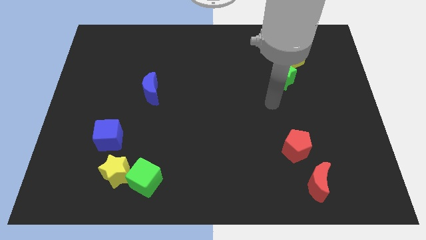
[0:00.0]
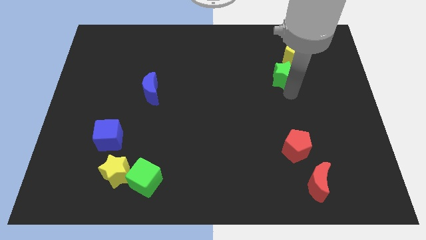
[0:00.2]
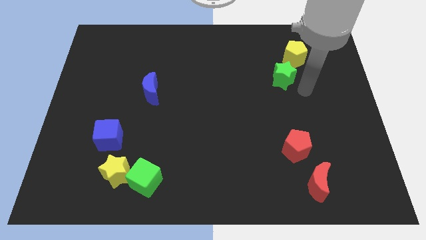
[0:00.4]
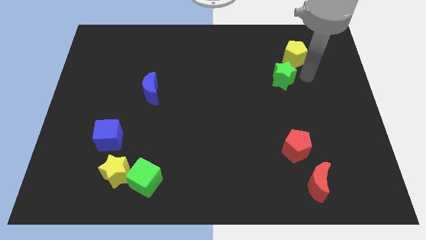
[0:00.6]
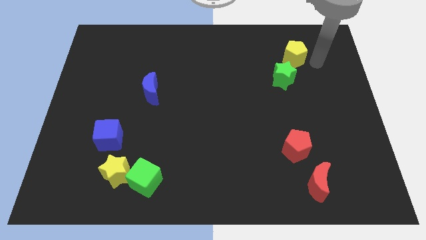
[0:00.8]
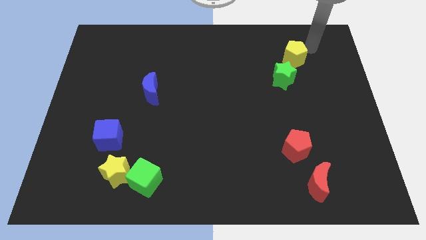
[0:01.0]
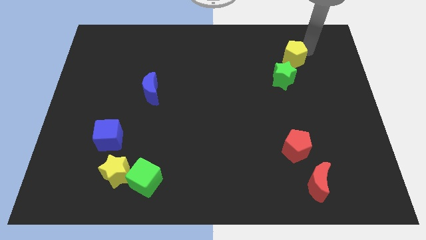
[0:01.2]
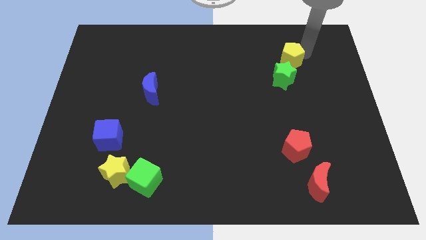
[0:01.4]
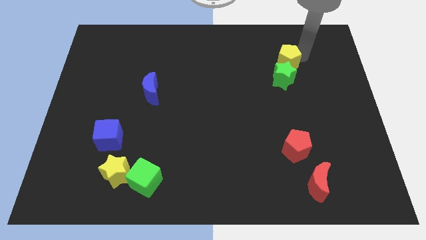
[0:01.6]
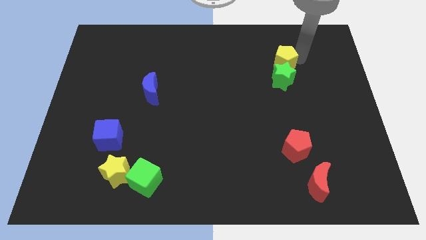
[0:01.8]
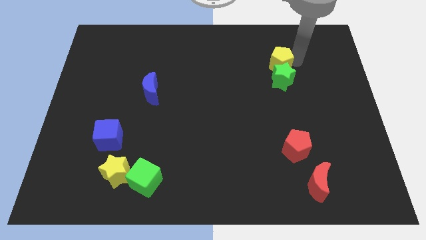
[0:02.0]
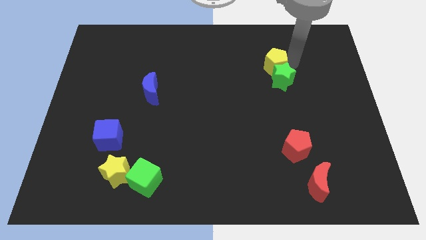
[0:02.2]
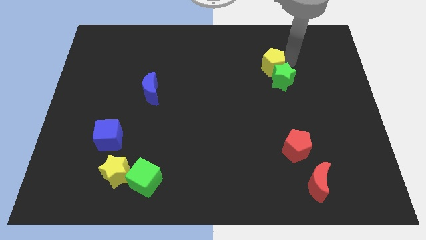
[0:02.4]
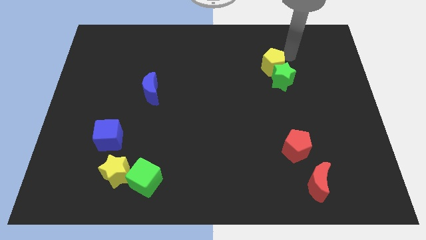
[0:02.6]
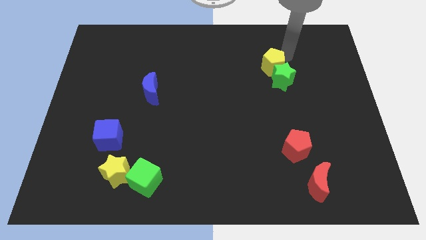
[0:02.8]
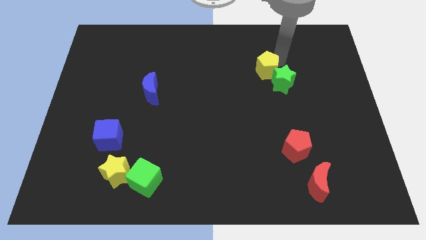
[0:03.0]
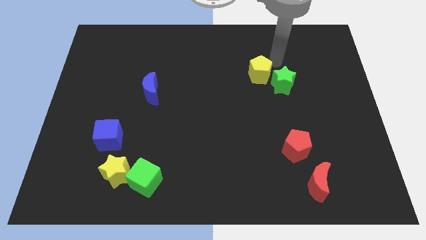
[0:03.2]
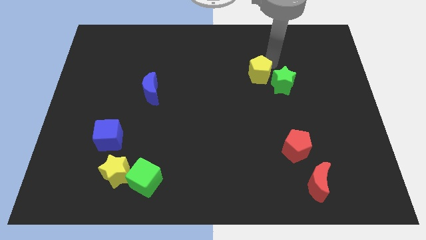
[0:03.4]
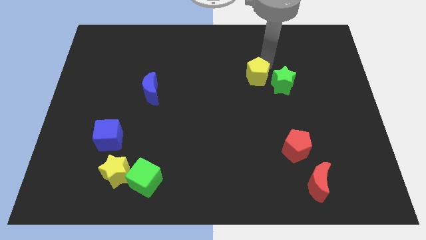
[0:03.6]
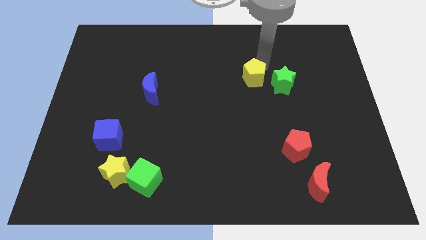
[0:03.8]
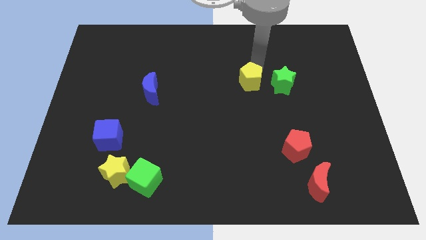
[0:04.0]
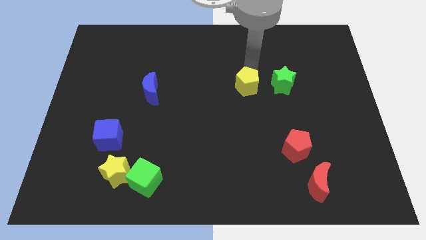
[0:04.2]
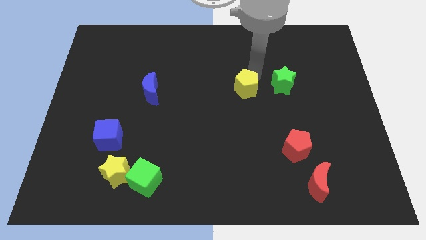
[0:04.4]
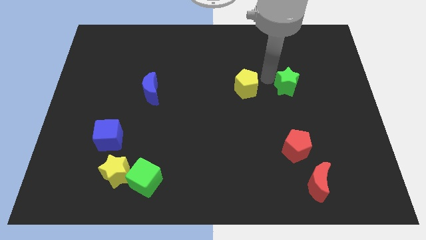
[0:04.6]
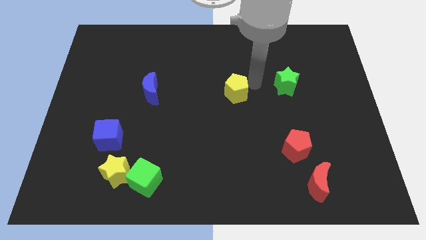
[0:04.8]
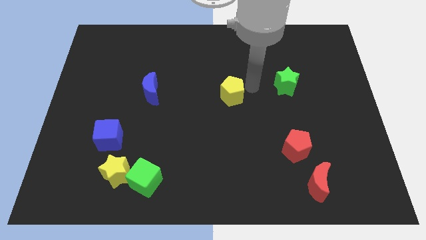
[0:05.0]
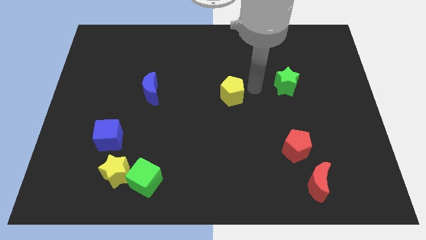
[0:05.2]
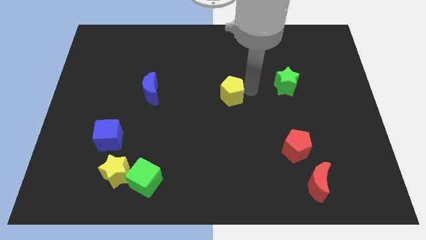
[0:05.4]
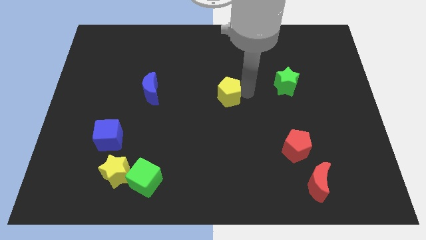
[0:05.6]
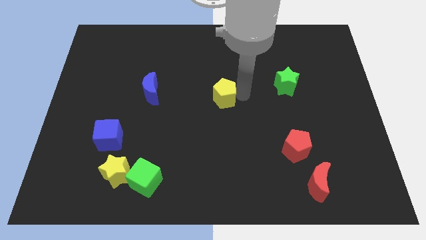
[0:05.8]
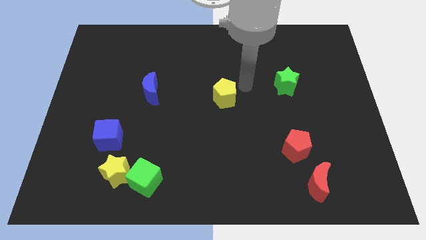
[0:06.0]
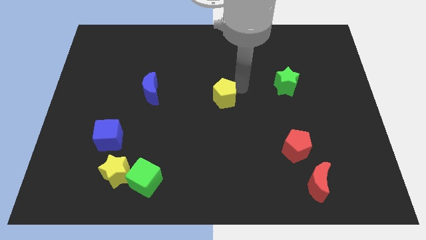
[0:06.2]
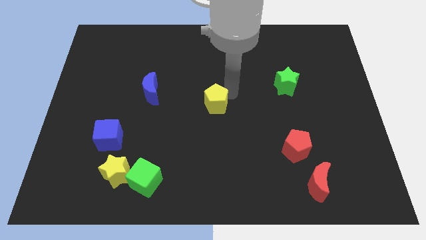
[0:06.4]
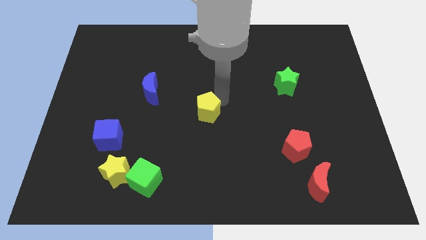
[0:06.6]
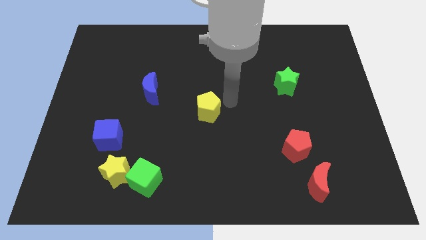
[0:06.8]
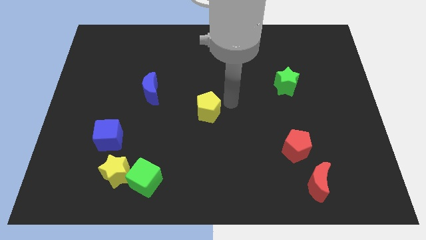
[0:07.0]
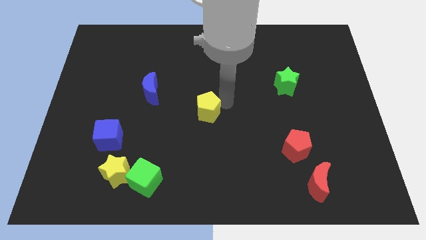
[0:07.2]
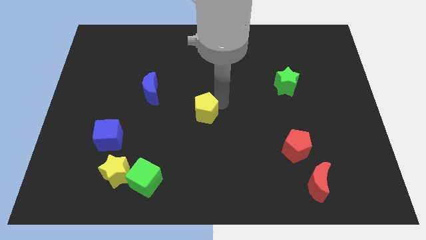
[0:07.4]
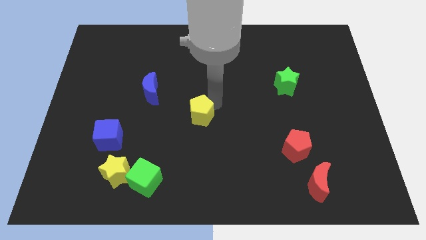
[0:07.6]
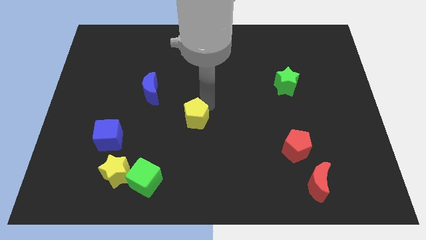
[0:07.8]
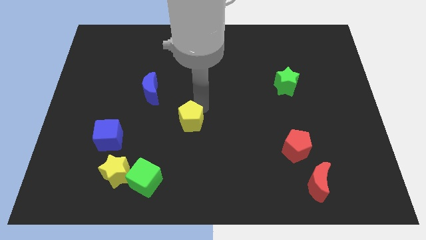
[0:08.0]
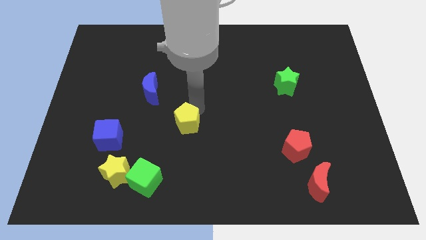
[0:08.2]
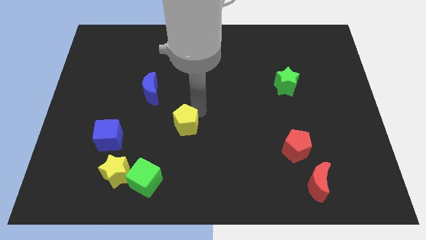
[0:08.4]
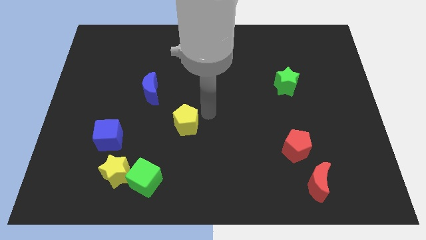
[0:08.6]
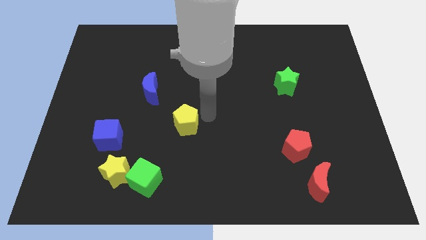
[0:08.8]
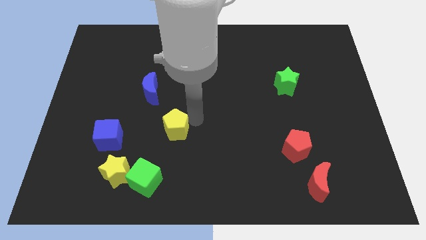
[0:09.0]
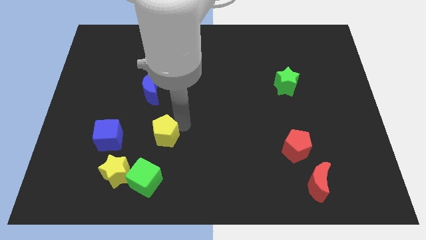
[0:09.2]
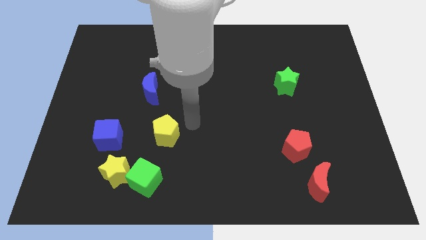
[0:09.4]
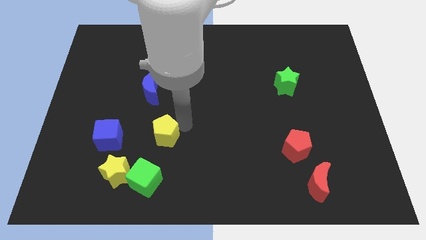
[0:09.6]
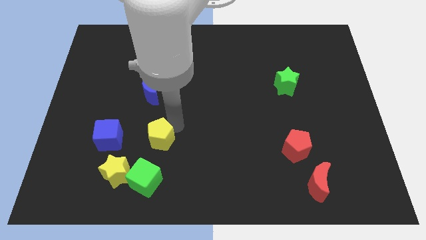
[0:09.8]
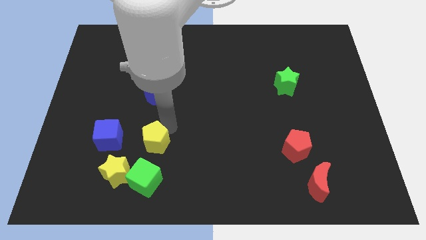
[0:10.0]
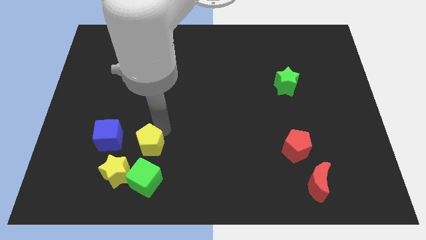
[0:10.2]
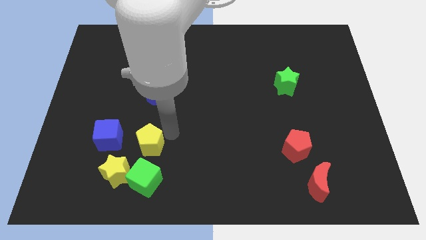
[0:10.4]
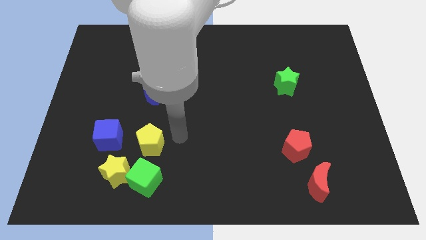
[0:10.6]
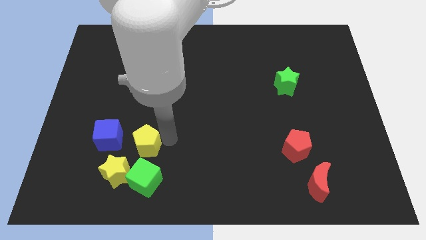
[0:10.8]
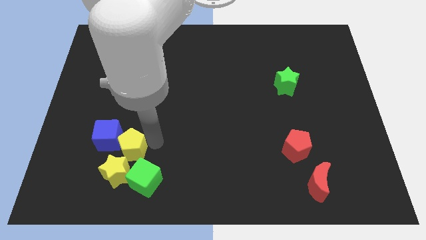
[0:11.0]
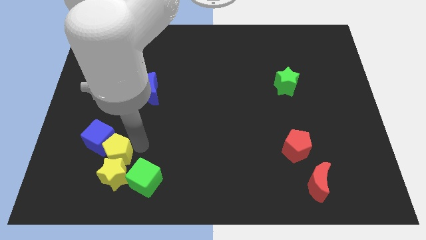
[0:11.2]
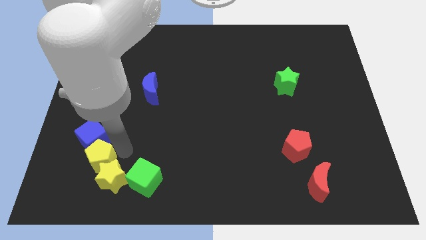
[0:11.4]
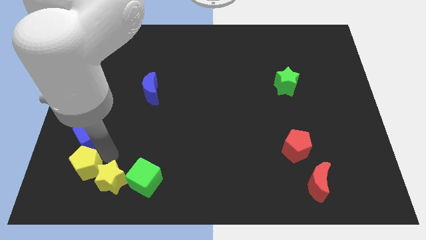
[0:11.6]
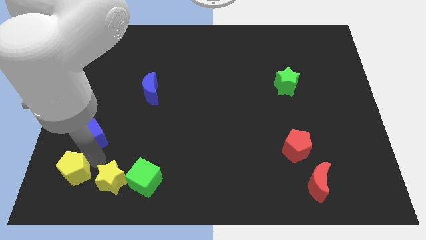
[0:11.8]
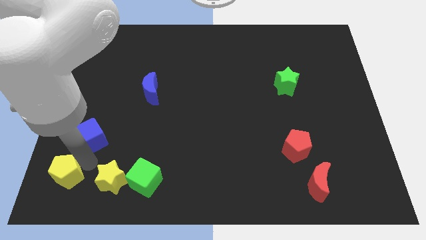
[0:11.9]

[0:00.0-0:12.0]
move the yellow pentagon to the bottom left corner

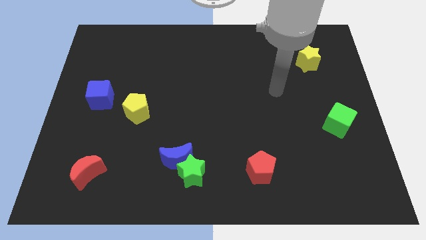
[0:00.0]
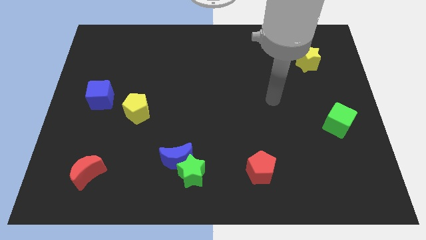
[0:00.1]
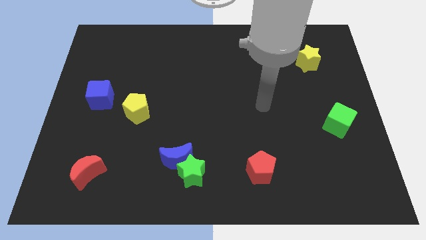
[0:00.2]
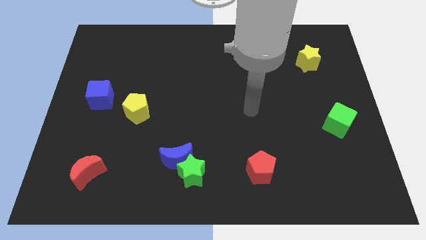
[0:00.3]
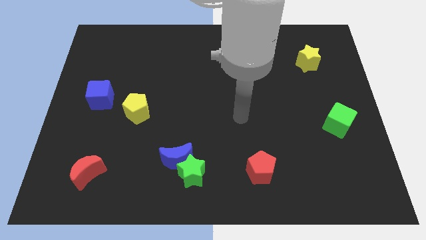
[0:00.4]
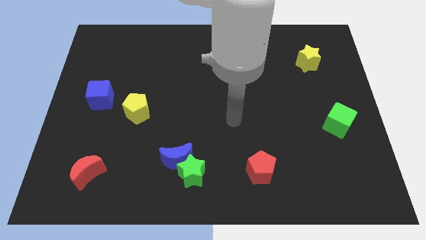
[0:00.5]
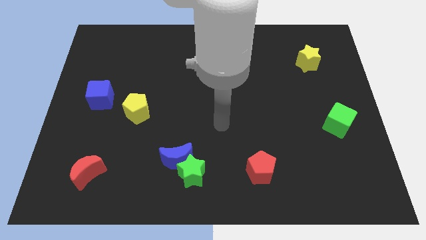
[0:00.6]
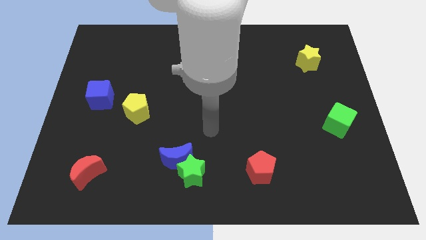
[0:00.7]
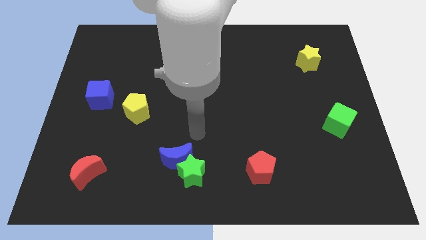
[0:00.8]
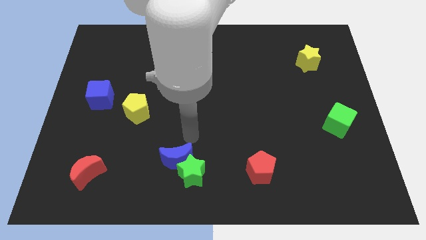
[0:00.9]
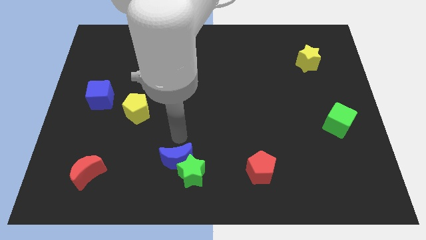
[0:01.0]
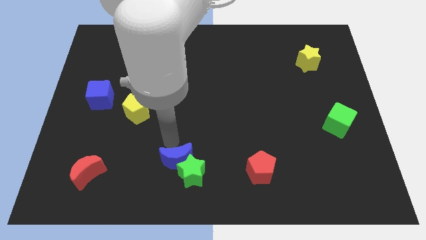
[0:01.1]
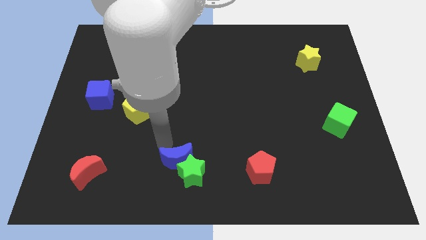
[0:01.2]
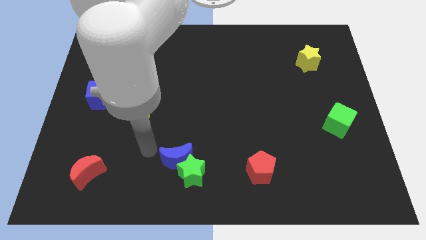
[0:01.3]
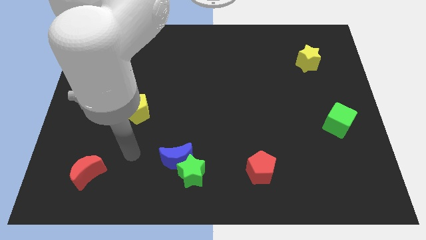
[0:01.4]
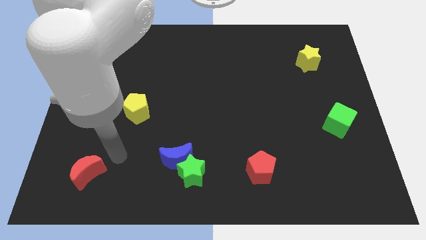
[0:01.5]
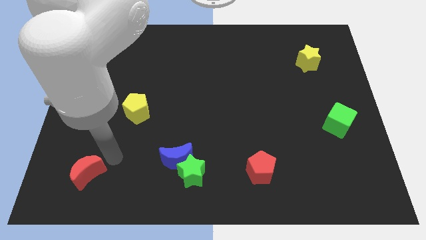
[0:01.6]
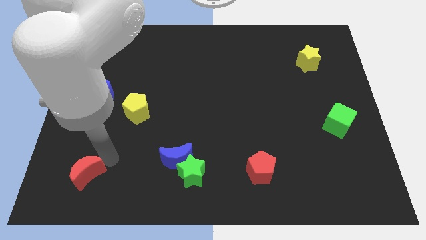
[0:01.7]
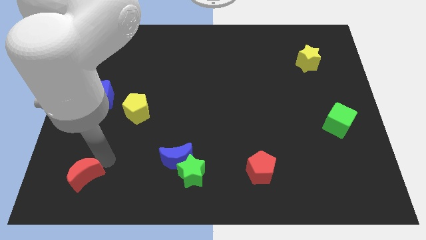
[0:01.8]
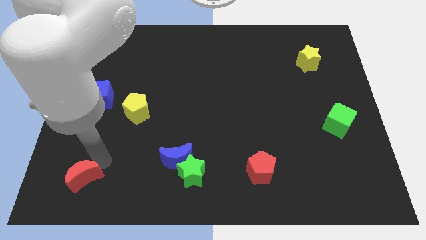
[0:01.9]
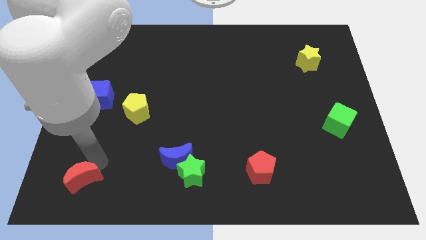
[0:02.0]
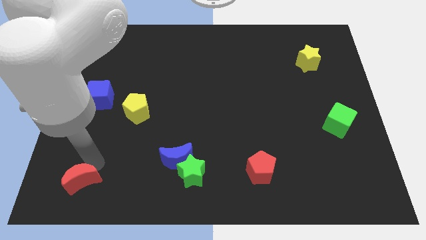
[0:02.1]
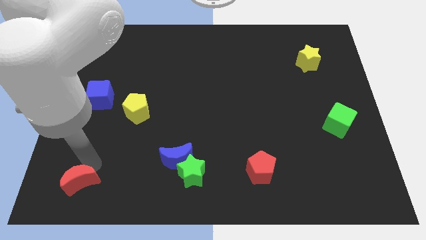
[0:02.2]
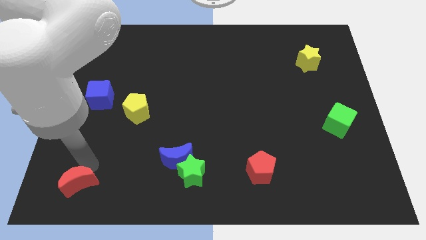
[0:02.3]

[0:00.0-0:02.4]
slide the red moon to the lower left corner
